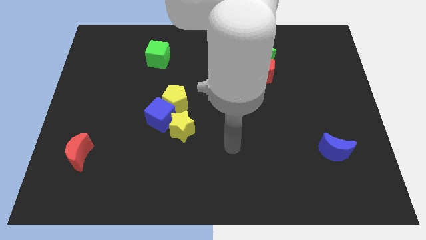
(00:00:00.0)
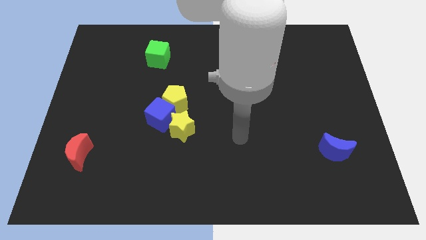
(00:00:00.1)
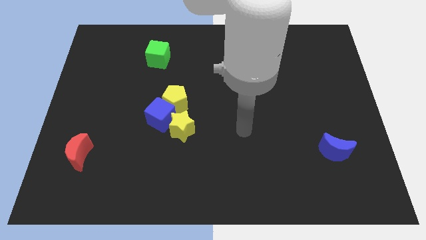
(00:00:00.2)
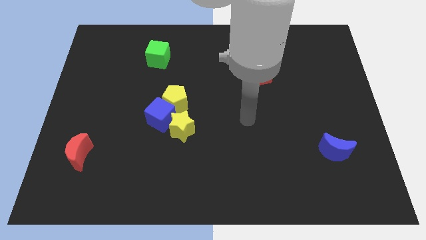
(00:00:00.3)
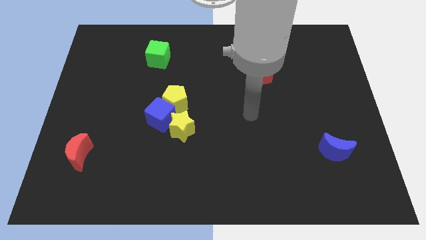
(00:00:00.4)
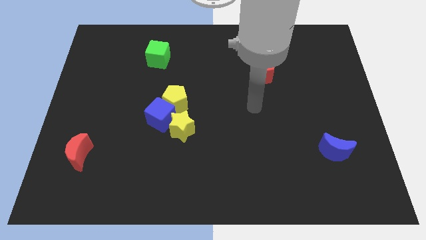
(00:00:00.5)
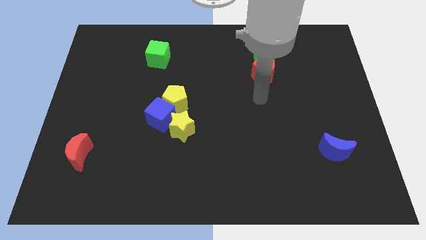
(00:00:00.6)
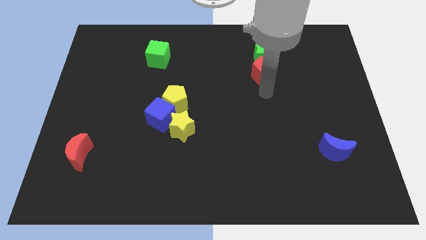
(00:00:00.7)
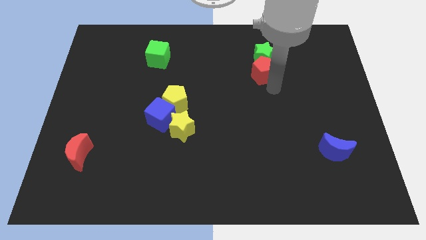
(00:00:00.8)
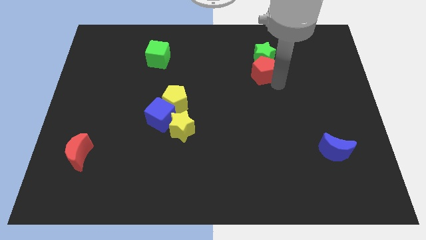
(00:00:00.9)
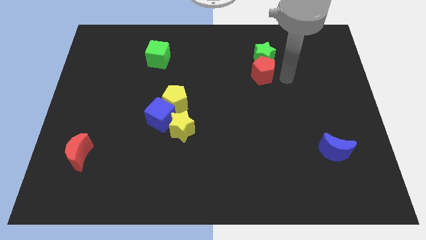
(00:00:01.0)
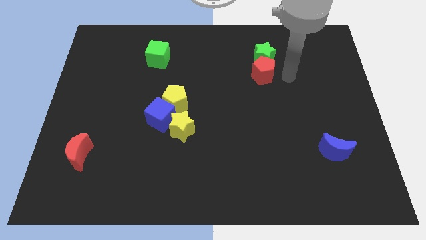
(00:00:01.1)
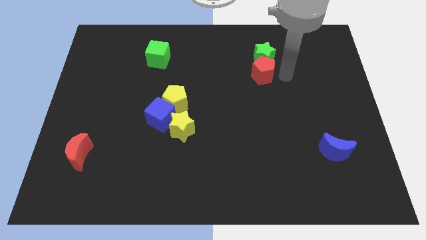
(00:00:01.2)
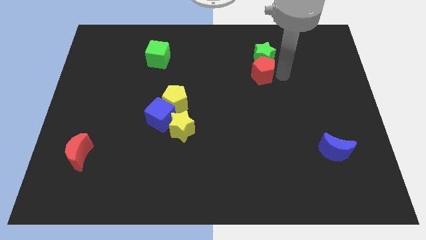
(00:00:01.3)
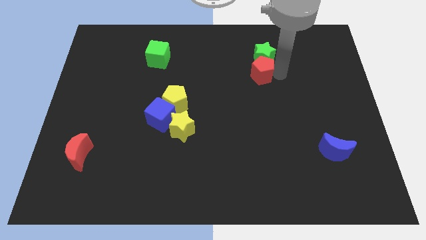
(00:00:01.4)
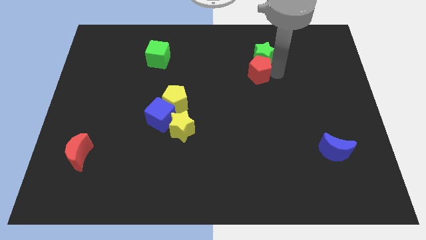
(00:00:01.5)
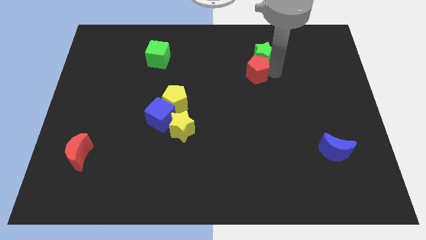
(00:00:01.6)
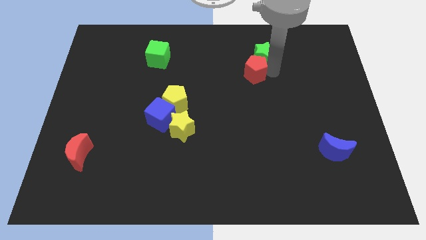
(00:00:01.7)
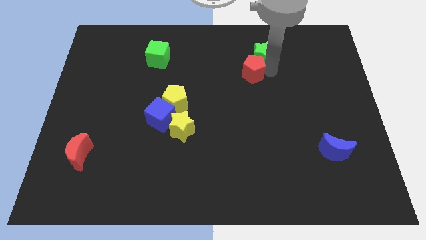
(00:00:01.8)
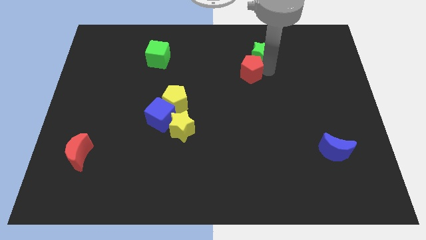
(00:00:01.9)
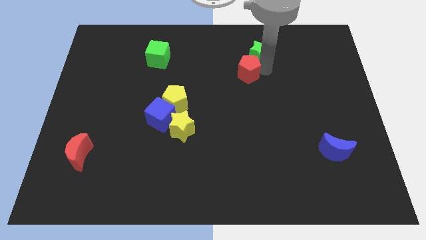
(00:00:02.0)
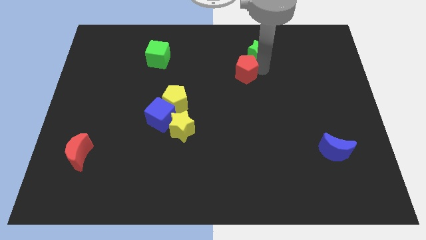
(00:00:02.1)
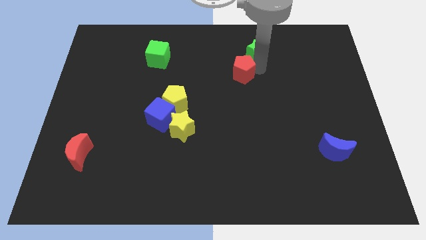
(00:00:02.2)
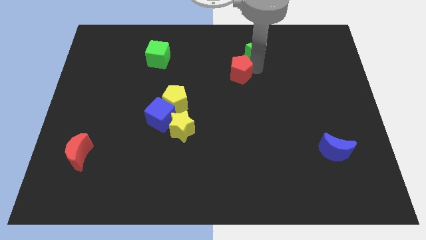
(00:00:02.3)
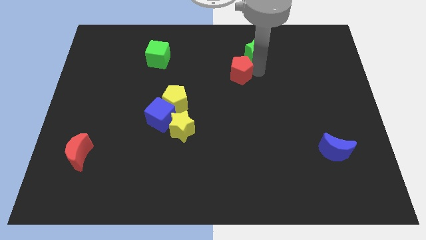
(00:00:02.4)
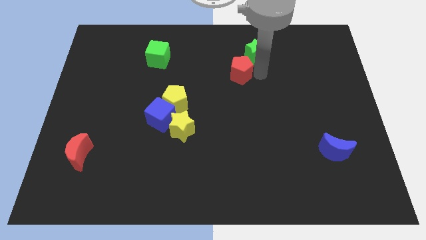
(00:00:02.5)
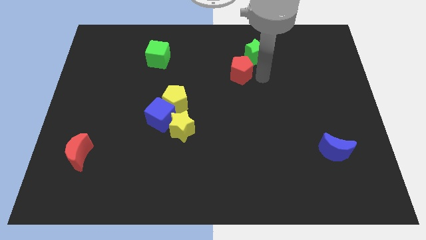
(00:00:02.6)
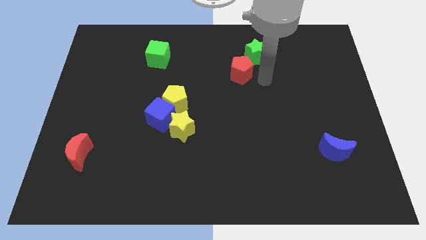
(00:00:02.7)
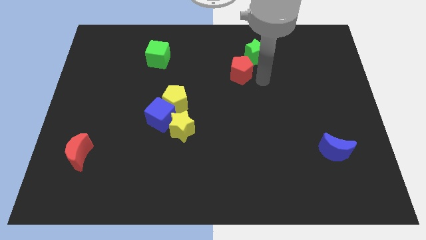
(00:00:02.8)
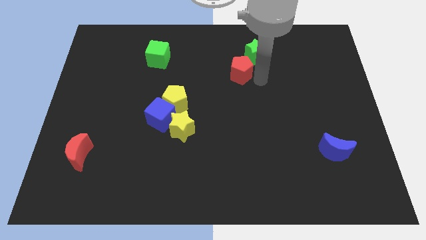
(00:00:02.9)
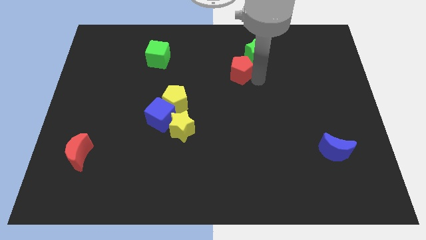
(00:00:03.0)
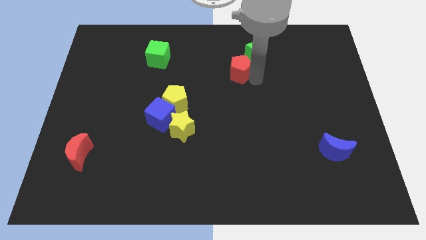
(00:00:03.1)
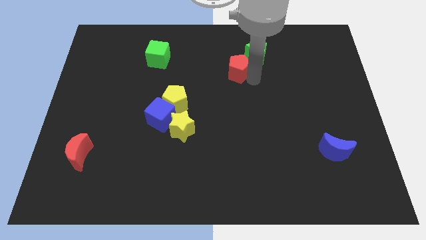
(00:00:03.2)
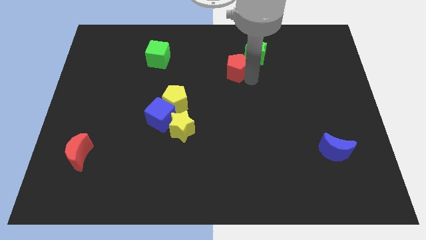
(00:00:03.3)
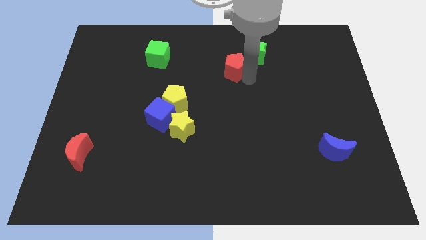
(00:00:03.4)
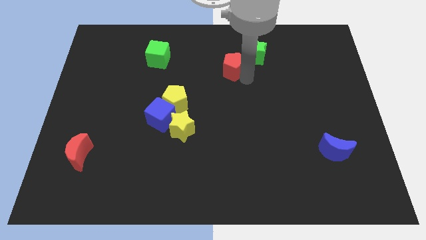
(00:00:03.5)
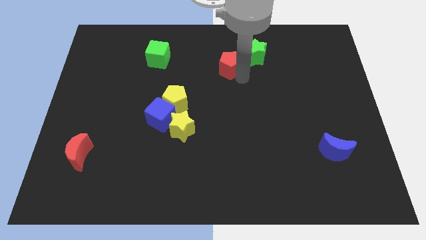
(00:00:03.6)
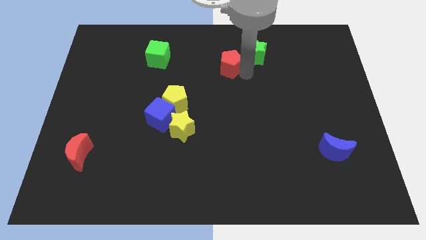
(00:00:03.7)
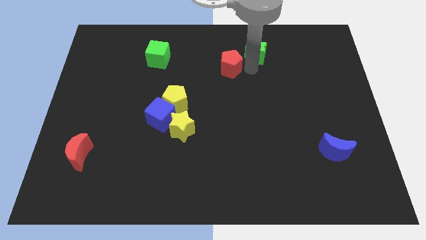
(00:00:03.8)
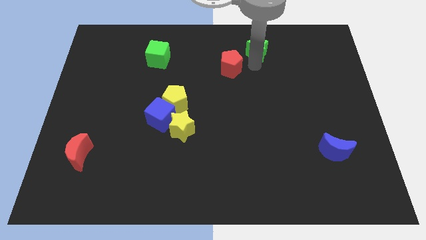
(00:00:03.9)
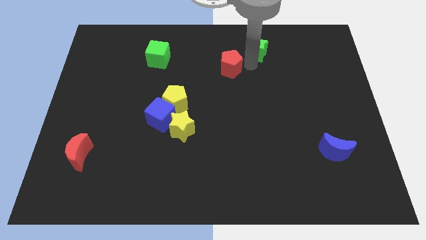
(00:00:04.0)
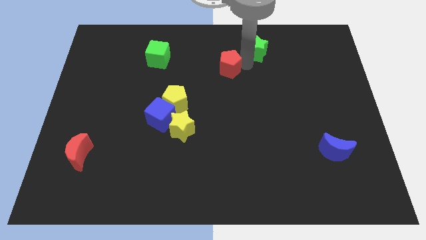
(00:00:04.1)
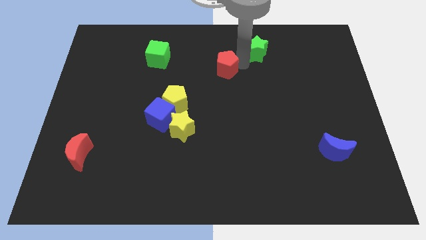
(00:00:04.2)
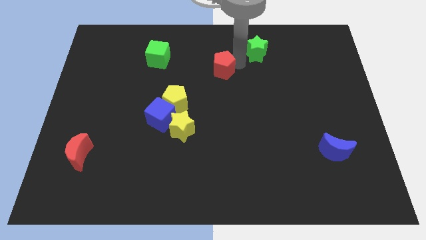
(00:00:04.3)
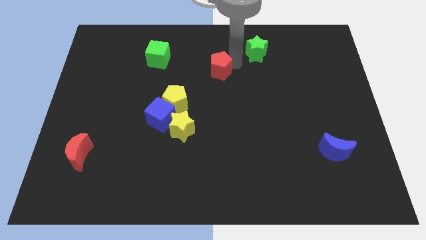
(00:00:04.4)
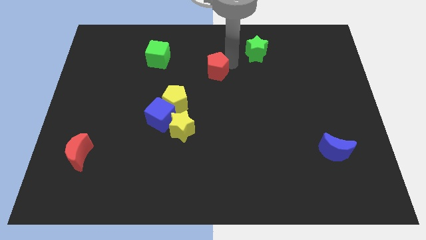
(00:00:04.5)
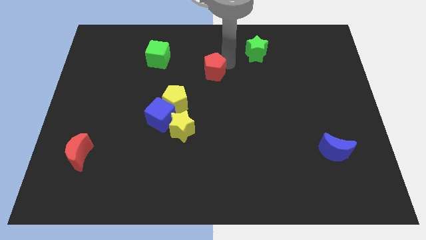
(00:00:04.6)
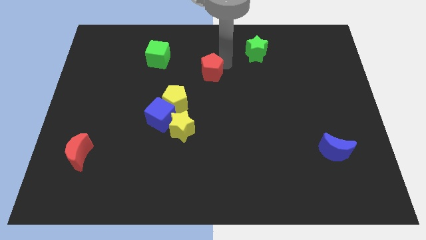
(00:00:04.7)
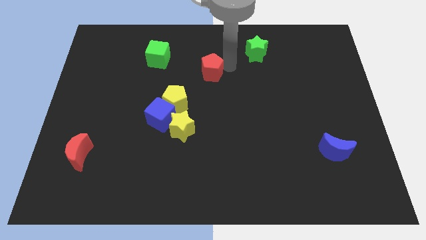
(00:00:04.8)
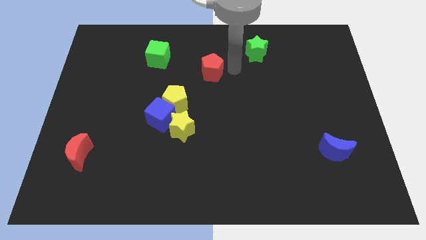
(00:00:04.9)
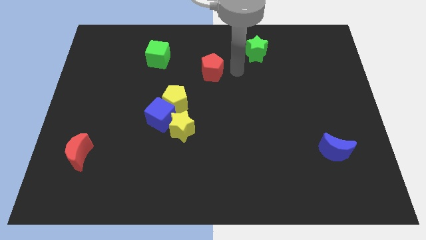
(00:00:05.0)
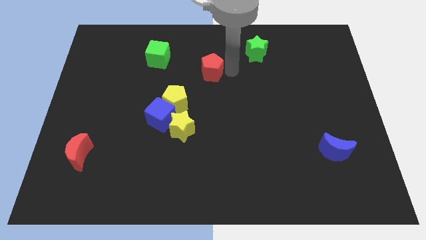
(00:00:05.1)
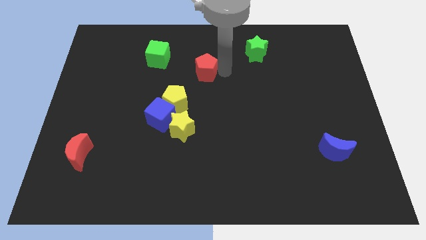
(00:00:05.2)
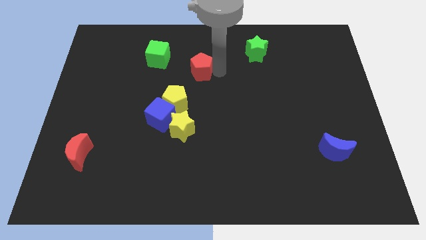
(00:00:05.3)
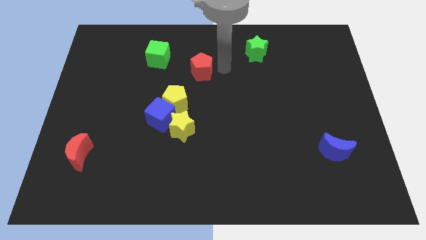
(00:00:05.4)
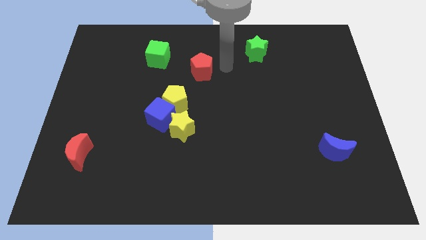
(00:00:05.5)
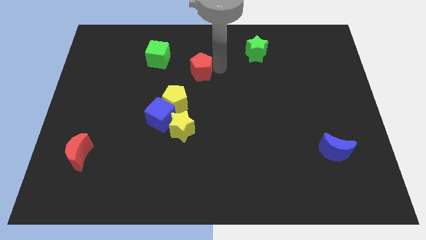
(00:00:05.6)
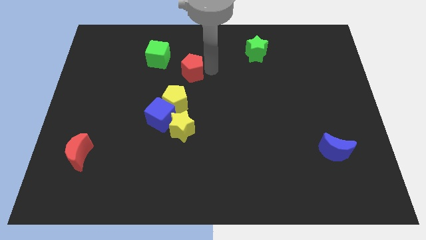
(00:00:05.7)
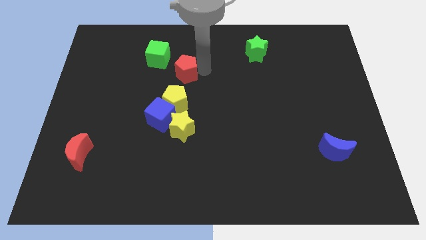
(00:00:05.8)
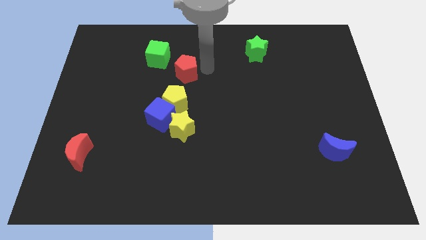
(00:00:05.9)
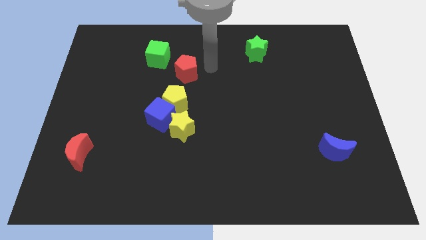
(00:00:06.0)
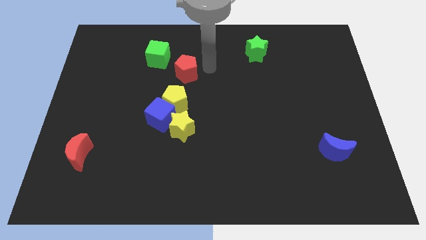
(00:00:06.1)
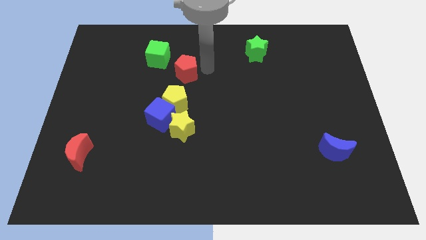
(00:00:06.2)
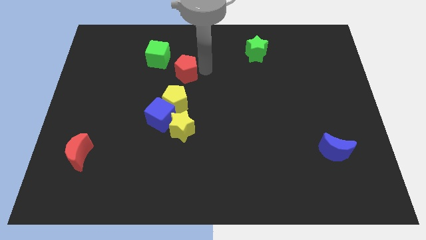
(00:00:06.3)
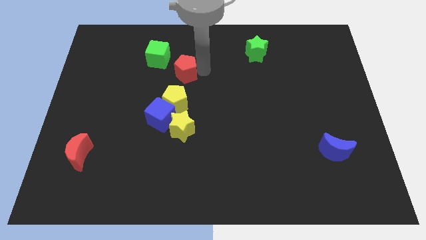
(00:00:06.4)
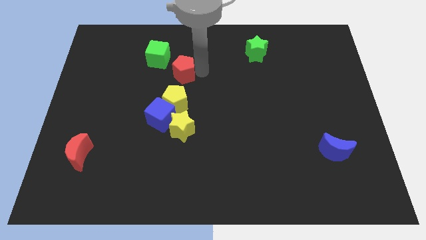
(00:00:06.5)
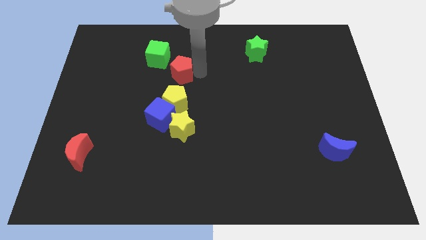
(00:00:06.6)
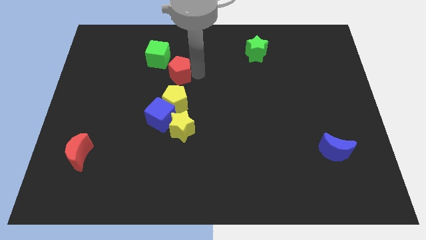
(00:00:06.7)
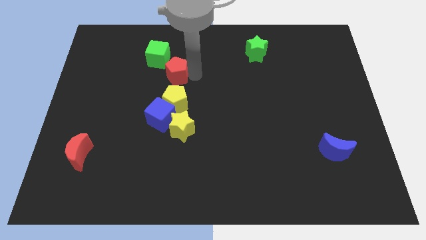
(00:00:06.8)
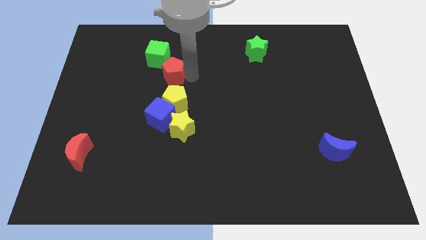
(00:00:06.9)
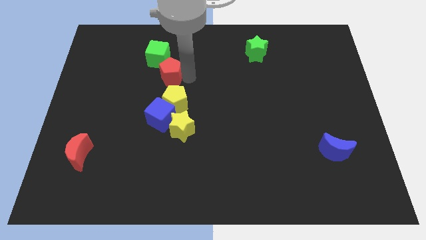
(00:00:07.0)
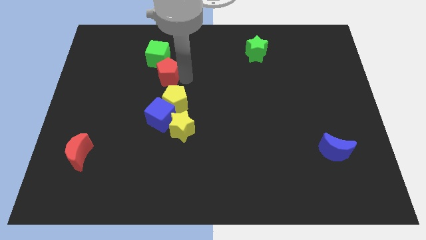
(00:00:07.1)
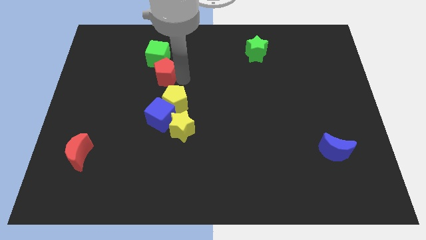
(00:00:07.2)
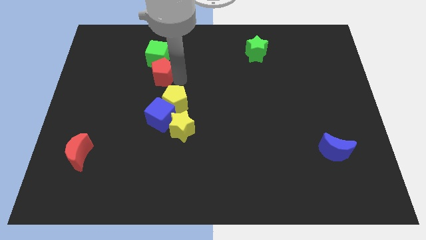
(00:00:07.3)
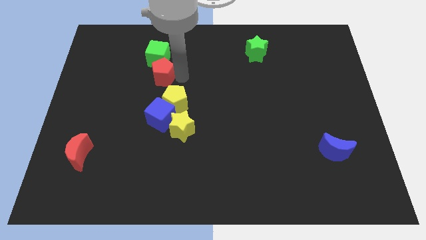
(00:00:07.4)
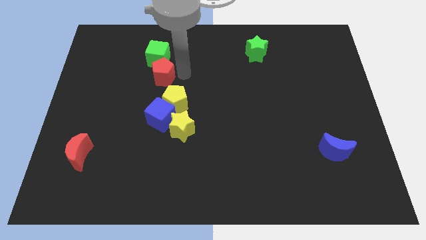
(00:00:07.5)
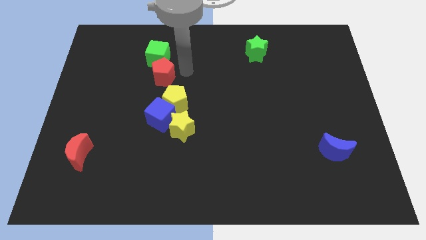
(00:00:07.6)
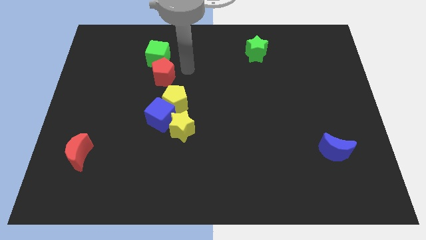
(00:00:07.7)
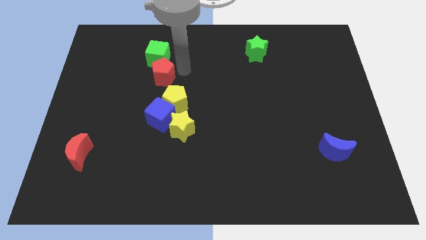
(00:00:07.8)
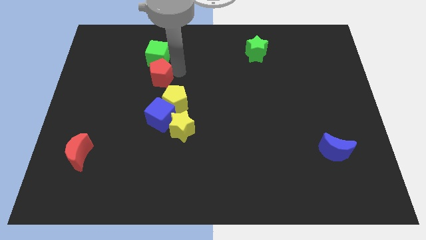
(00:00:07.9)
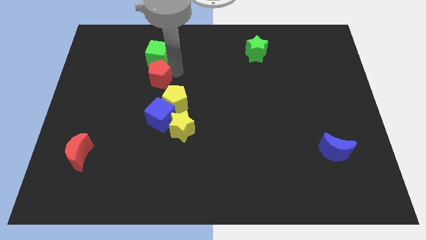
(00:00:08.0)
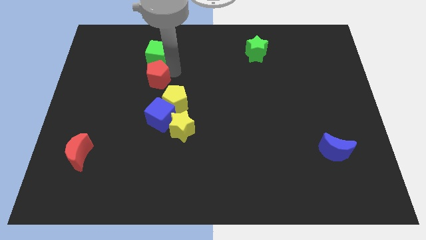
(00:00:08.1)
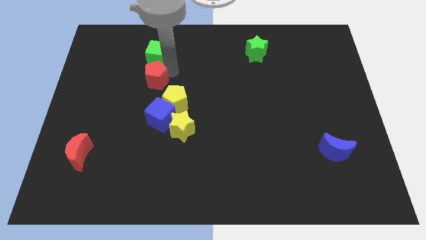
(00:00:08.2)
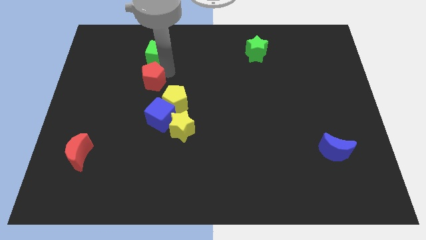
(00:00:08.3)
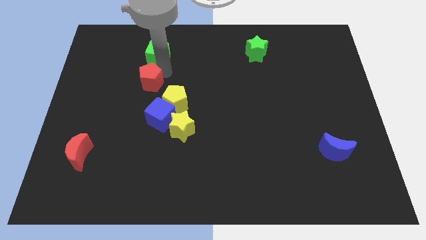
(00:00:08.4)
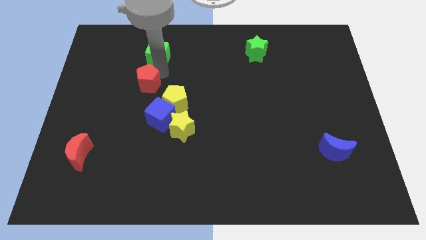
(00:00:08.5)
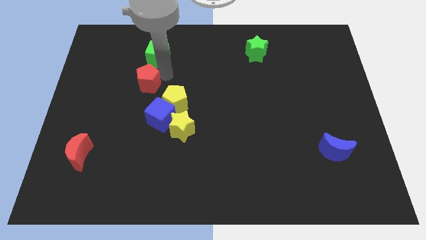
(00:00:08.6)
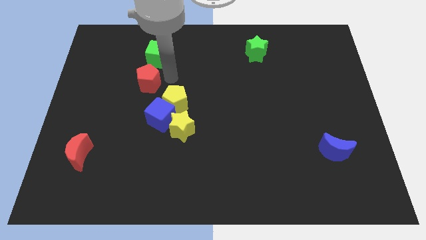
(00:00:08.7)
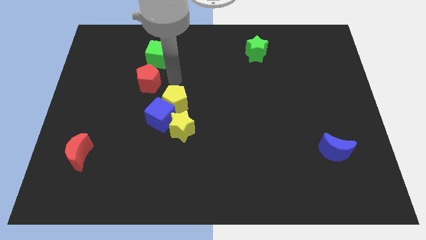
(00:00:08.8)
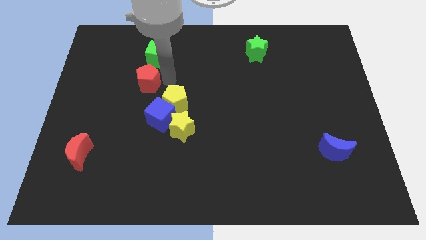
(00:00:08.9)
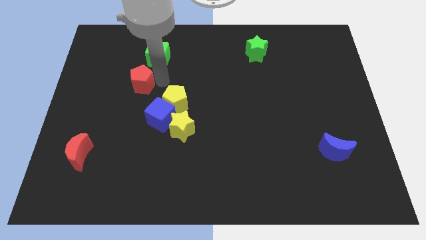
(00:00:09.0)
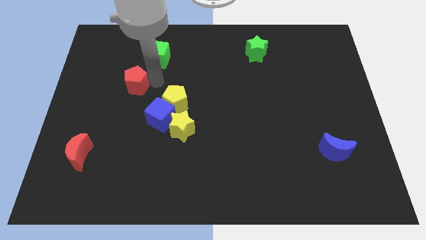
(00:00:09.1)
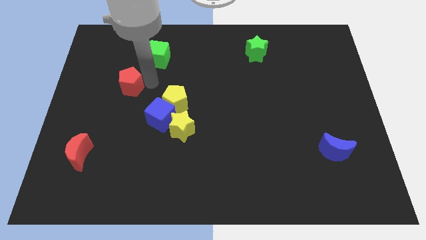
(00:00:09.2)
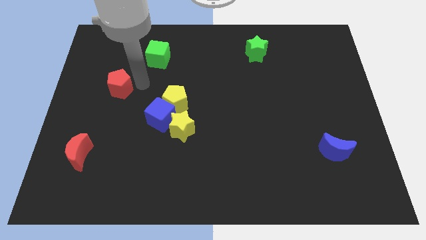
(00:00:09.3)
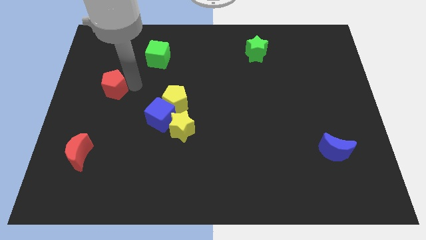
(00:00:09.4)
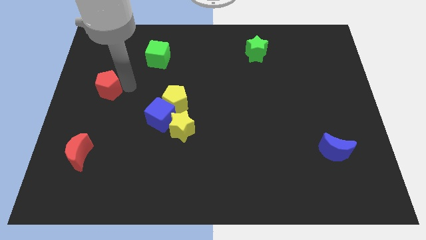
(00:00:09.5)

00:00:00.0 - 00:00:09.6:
slide the red pentagon to the left side
